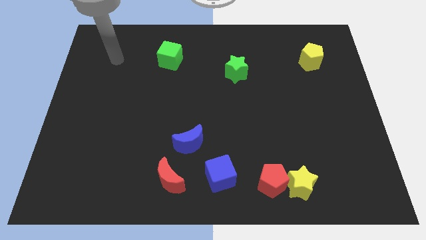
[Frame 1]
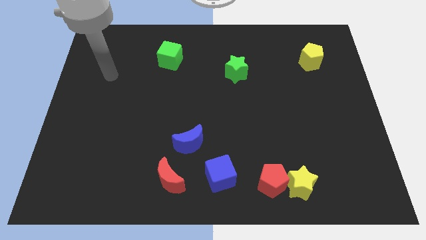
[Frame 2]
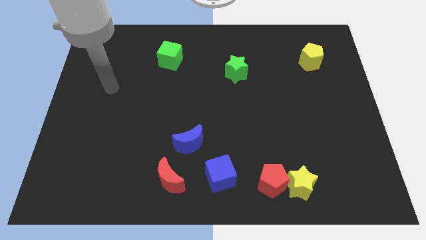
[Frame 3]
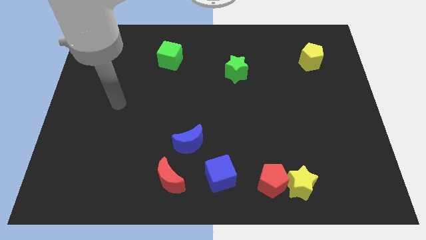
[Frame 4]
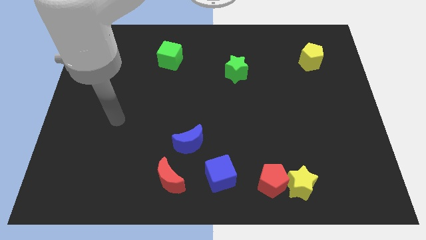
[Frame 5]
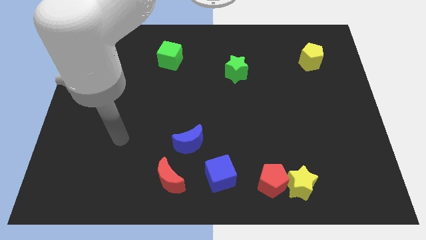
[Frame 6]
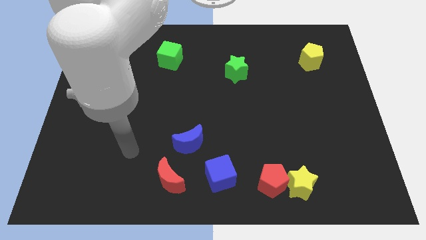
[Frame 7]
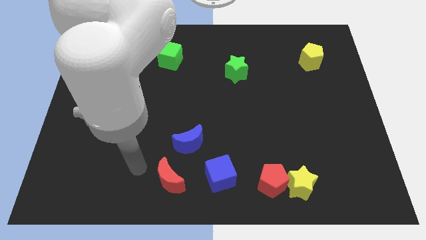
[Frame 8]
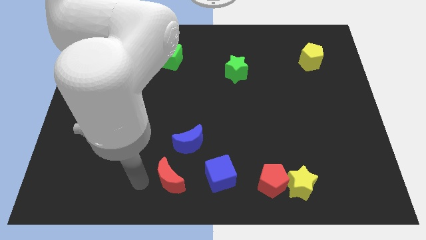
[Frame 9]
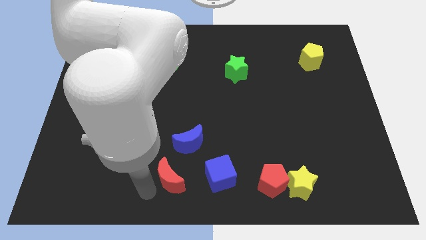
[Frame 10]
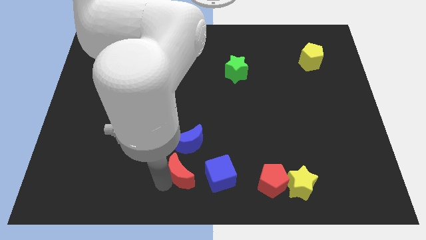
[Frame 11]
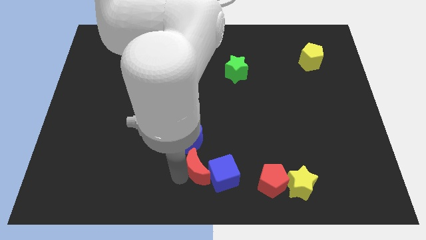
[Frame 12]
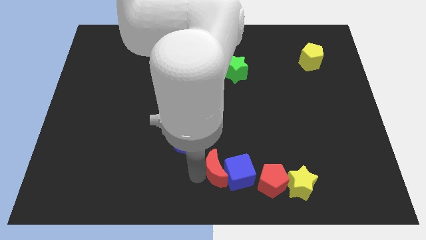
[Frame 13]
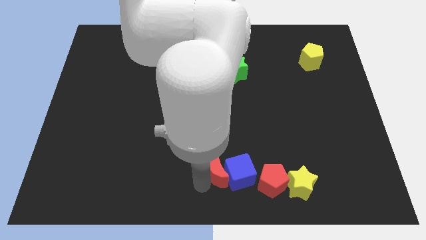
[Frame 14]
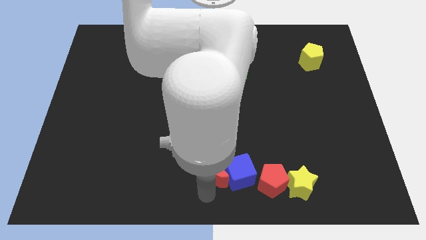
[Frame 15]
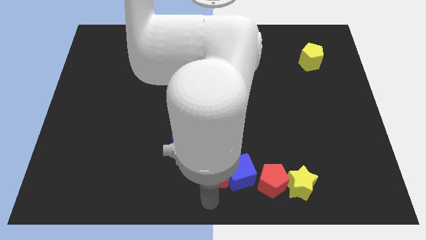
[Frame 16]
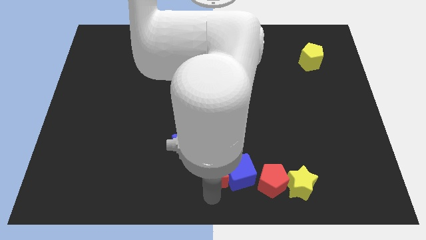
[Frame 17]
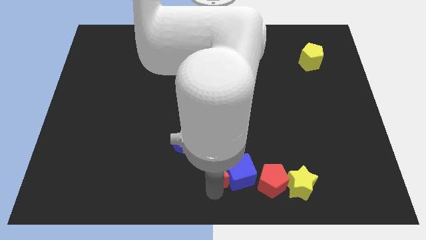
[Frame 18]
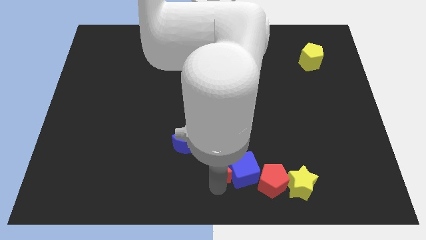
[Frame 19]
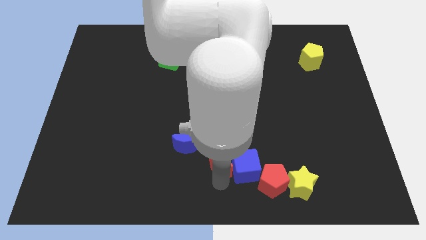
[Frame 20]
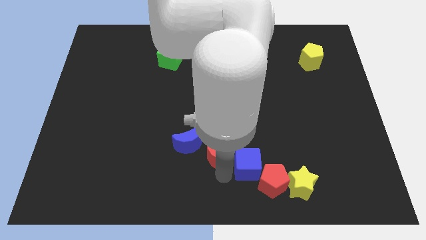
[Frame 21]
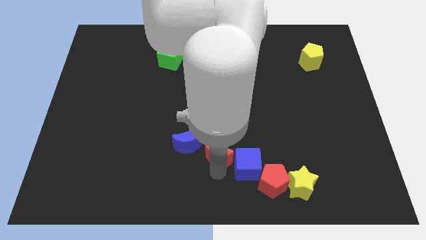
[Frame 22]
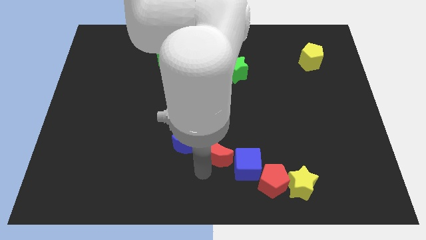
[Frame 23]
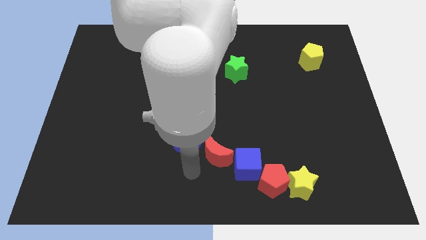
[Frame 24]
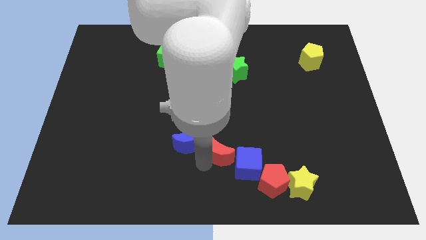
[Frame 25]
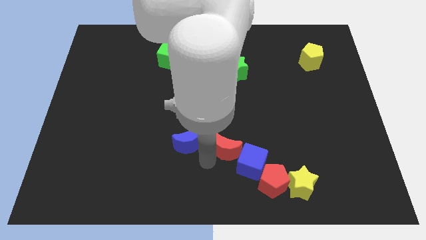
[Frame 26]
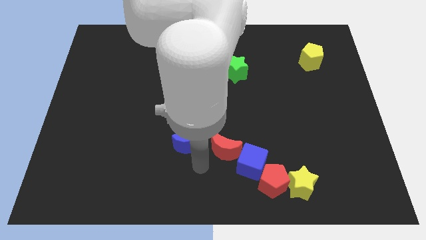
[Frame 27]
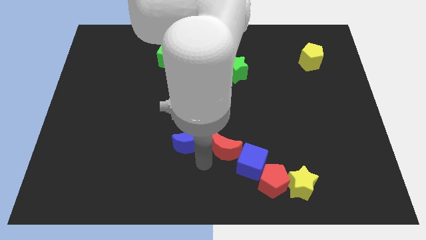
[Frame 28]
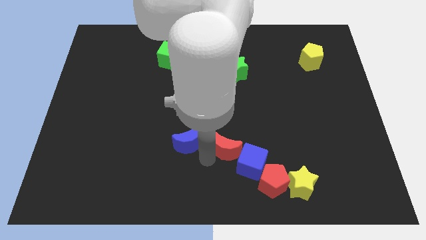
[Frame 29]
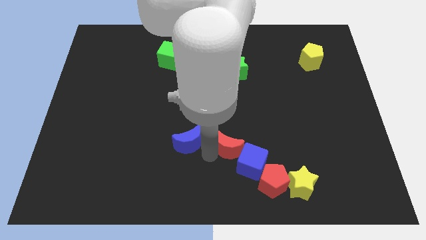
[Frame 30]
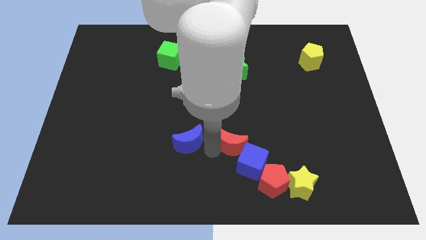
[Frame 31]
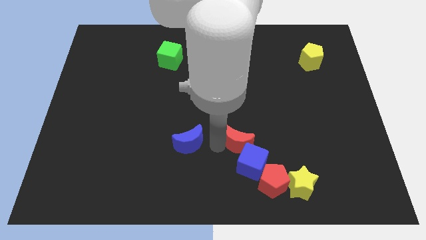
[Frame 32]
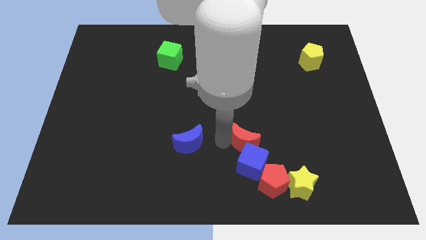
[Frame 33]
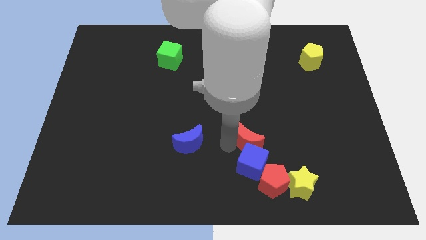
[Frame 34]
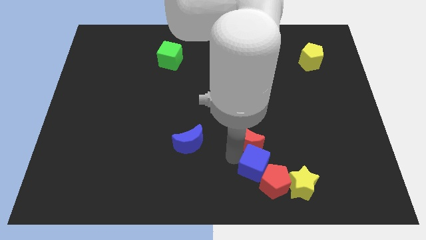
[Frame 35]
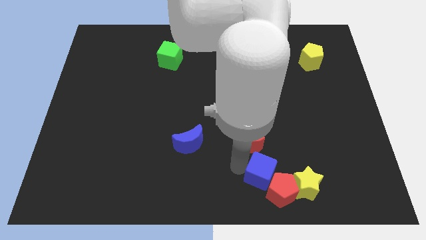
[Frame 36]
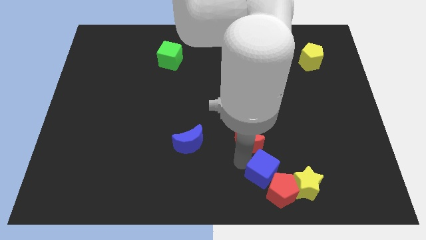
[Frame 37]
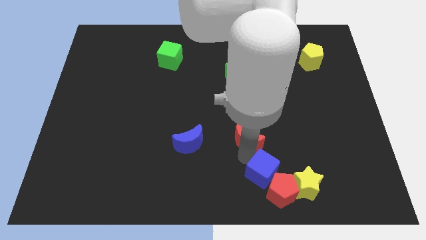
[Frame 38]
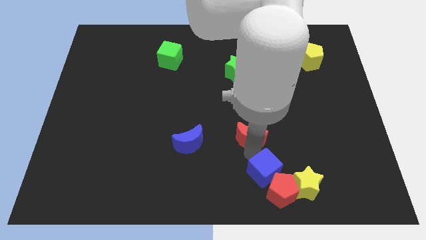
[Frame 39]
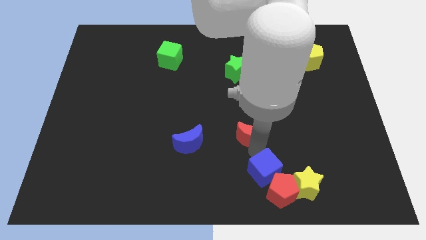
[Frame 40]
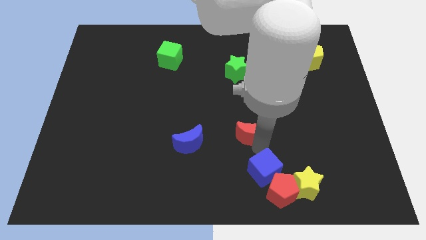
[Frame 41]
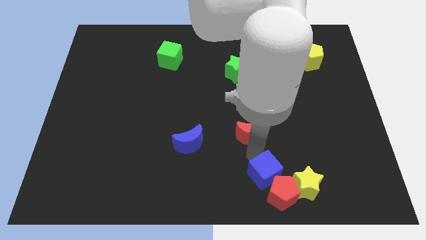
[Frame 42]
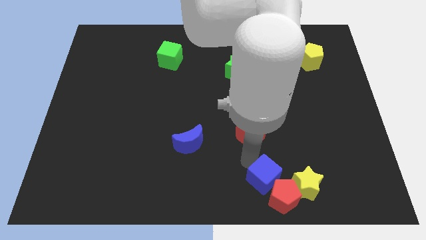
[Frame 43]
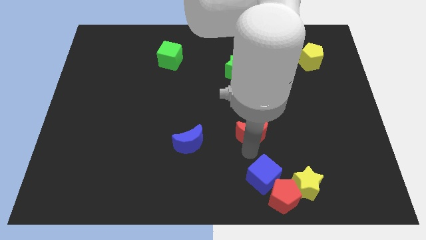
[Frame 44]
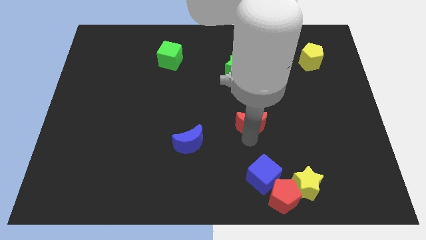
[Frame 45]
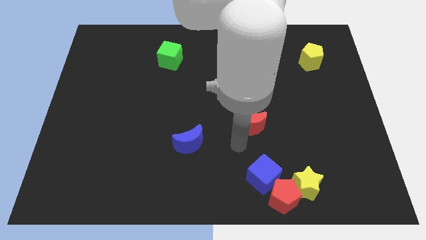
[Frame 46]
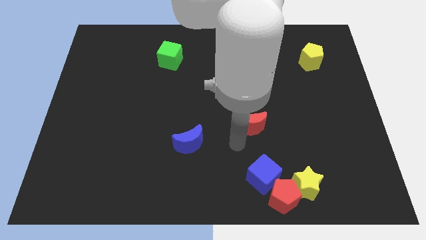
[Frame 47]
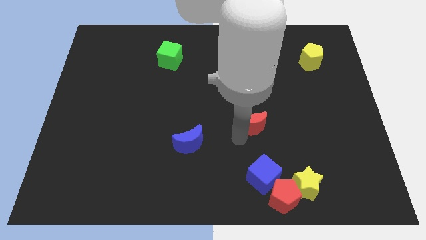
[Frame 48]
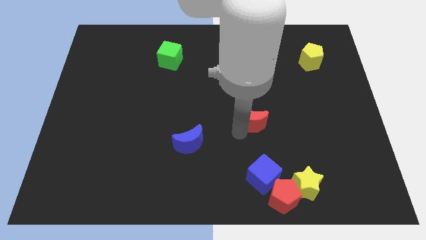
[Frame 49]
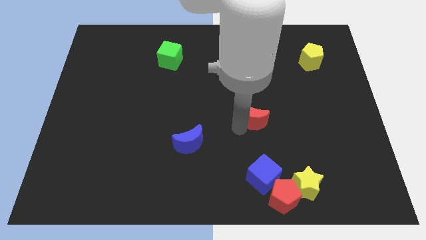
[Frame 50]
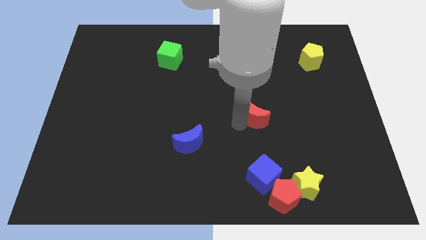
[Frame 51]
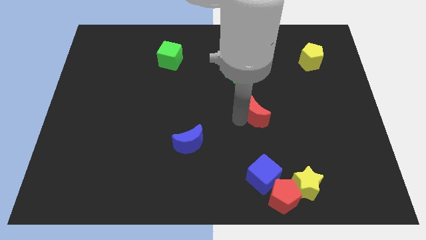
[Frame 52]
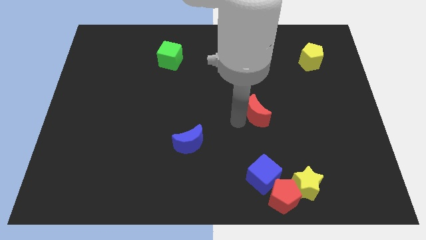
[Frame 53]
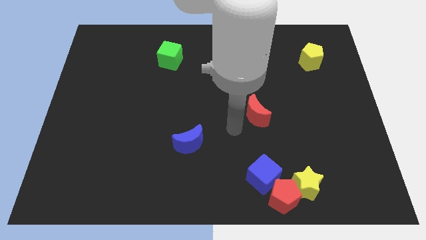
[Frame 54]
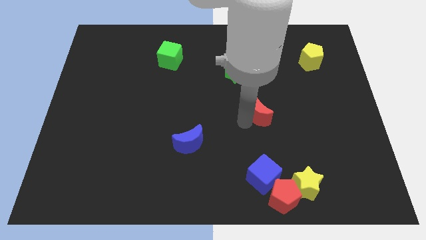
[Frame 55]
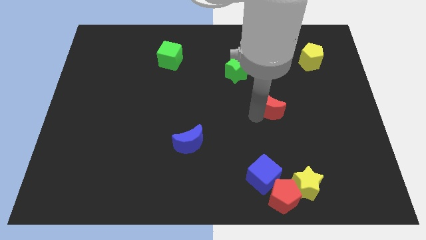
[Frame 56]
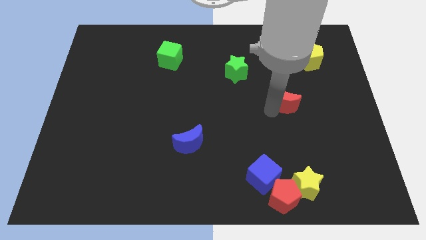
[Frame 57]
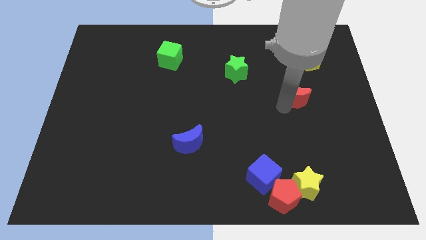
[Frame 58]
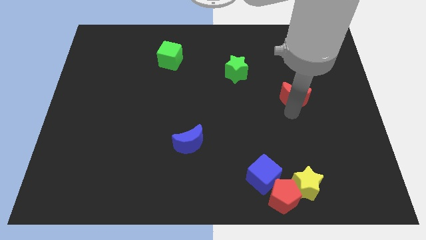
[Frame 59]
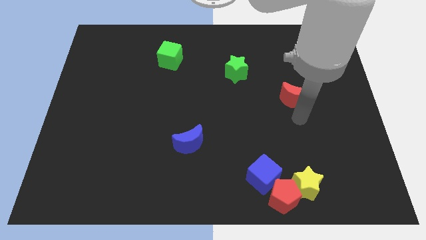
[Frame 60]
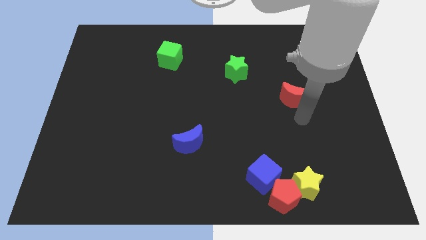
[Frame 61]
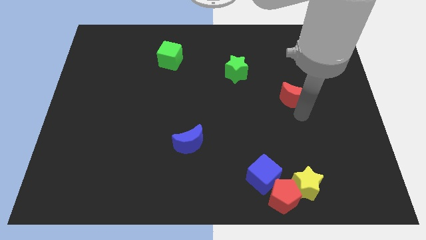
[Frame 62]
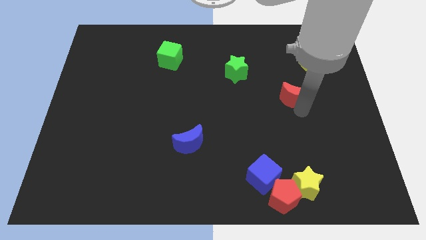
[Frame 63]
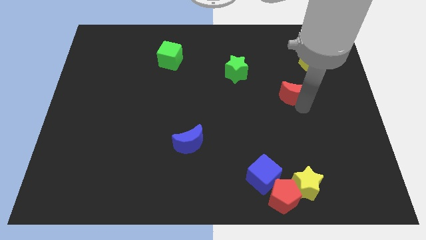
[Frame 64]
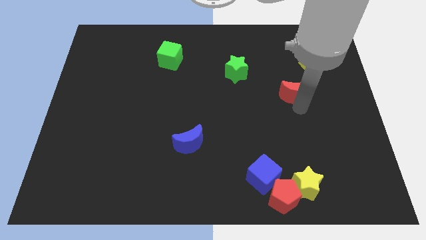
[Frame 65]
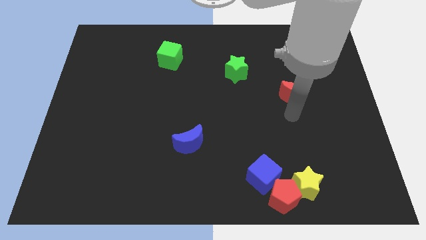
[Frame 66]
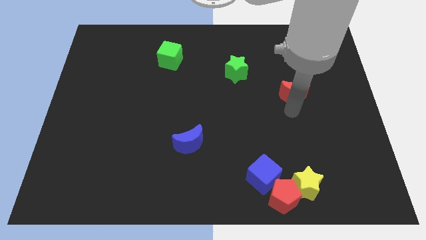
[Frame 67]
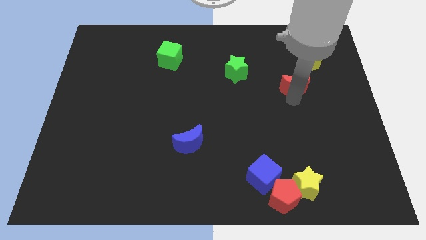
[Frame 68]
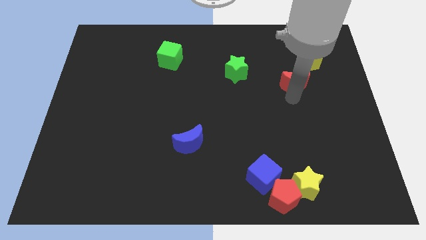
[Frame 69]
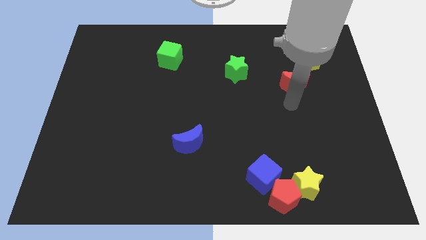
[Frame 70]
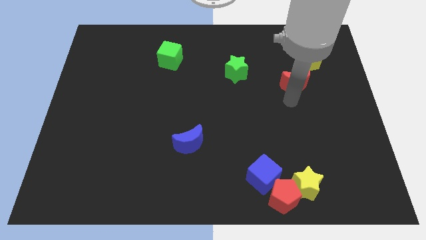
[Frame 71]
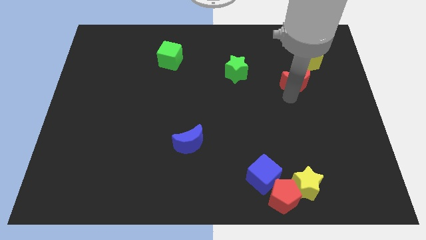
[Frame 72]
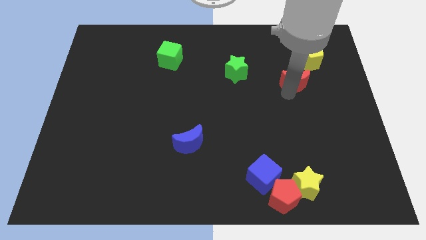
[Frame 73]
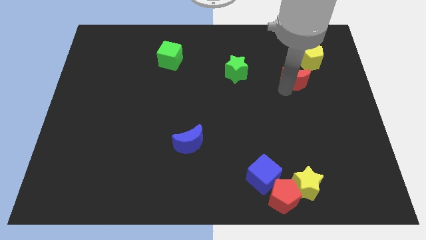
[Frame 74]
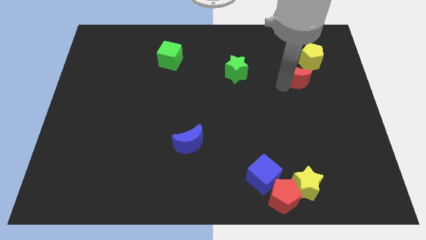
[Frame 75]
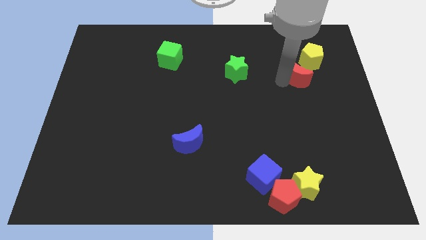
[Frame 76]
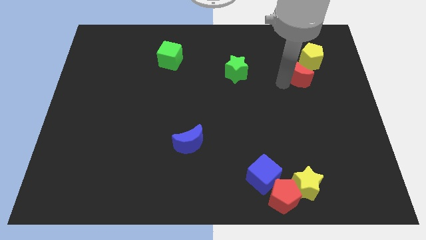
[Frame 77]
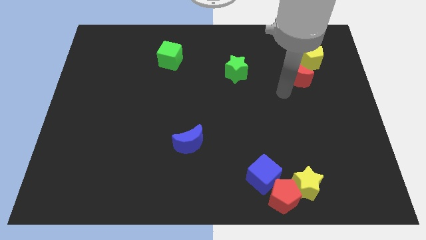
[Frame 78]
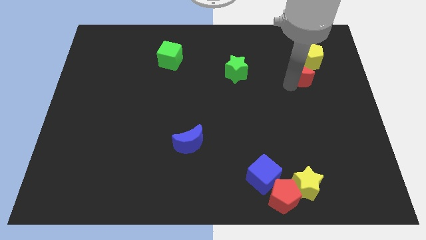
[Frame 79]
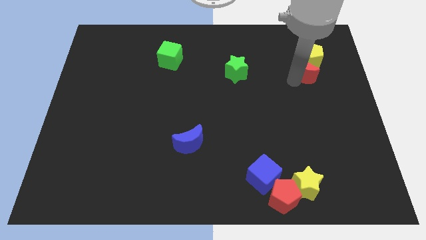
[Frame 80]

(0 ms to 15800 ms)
move the red moon to the yellow pentagon
